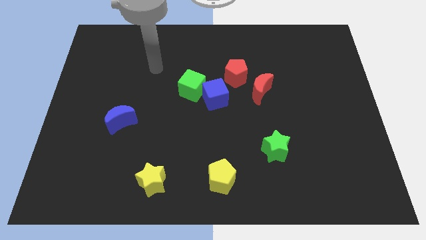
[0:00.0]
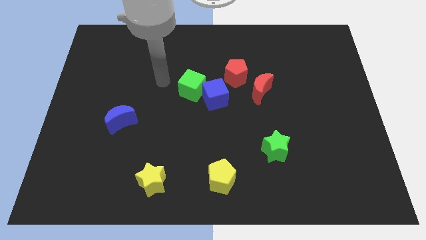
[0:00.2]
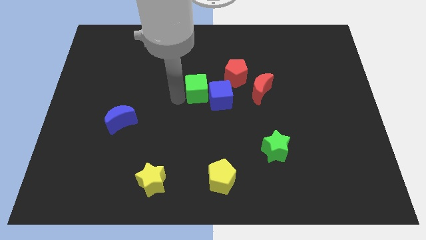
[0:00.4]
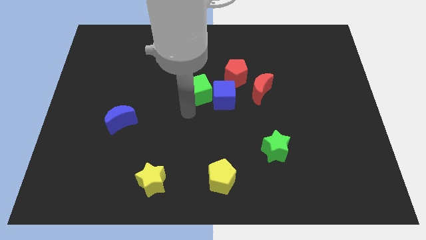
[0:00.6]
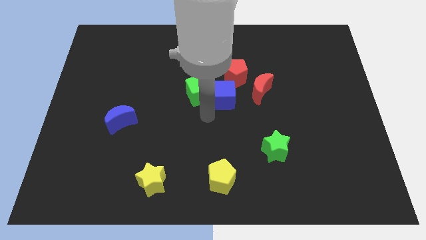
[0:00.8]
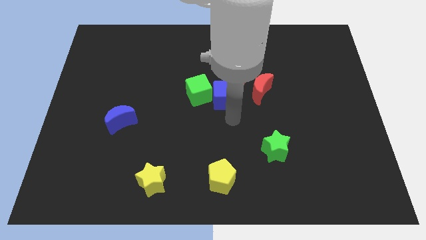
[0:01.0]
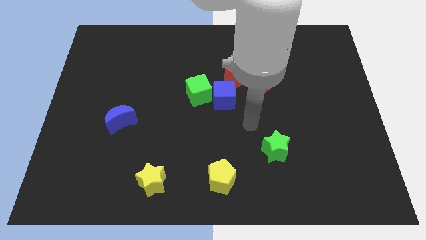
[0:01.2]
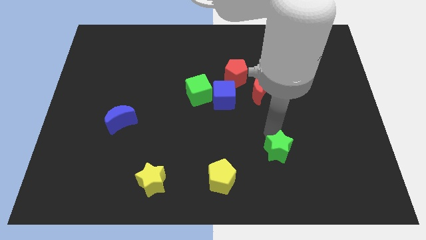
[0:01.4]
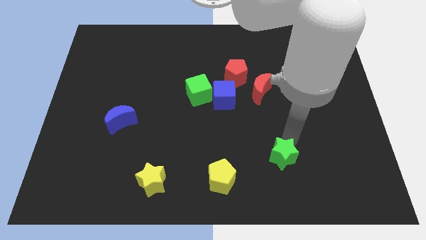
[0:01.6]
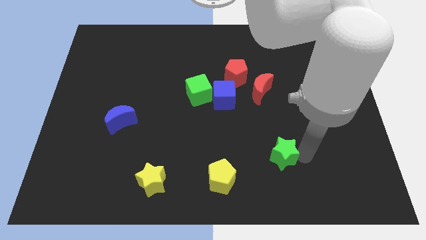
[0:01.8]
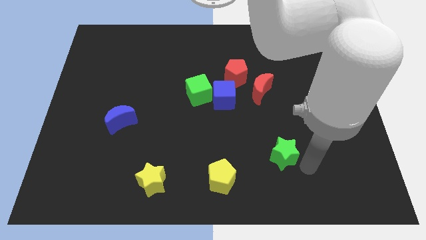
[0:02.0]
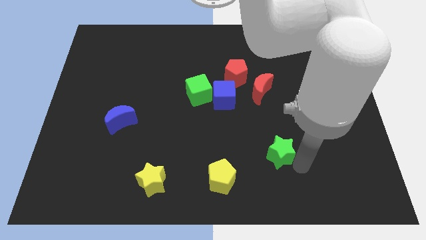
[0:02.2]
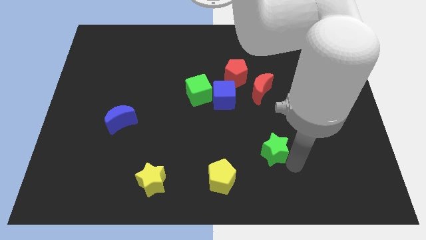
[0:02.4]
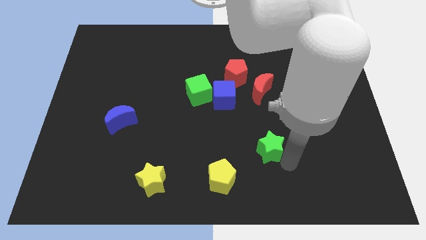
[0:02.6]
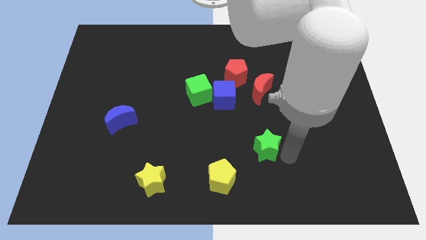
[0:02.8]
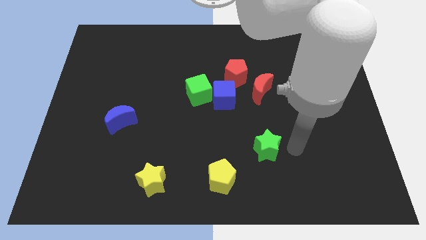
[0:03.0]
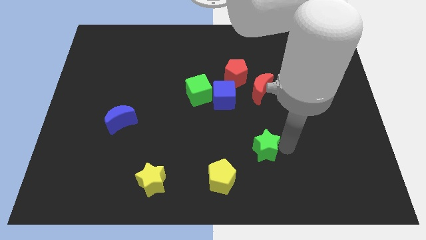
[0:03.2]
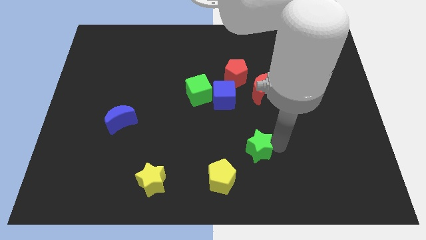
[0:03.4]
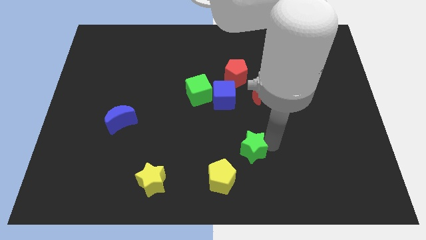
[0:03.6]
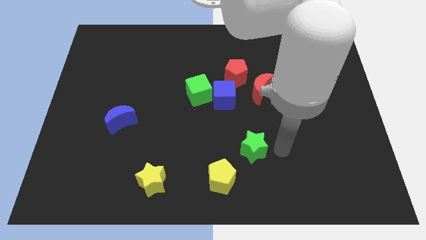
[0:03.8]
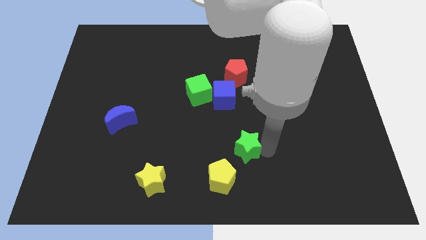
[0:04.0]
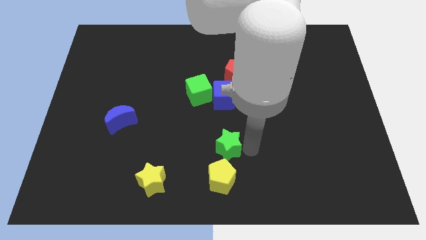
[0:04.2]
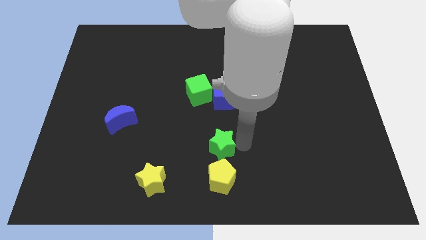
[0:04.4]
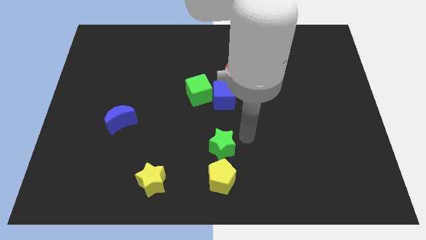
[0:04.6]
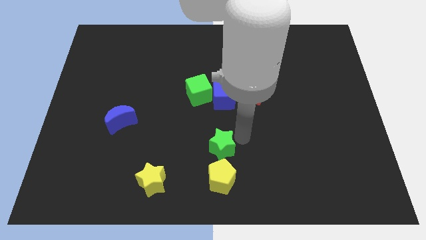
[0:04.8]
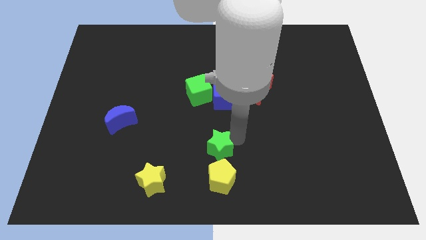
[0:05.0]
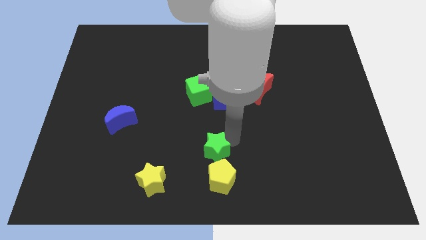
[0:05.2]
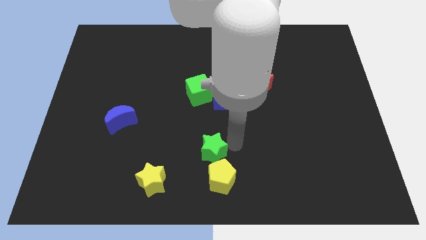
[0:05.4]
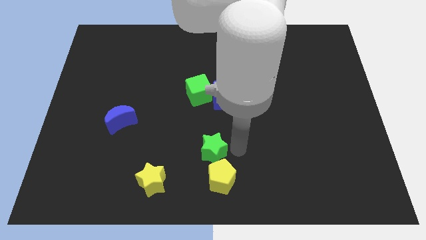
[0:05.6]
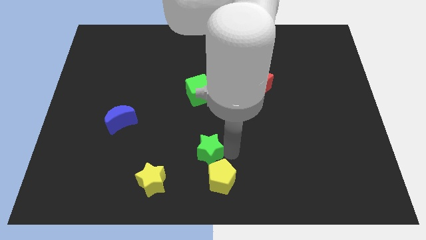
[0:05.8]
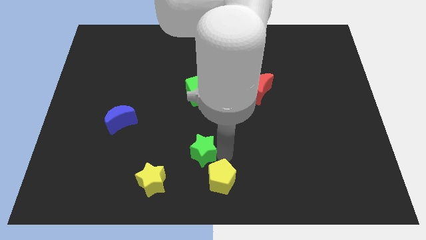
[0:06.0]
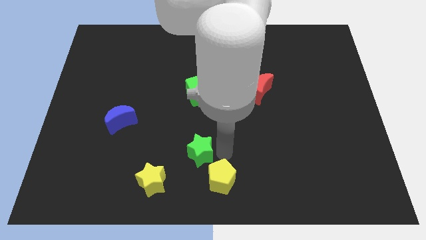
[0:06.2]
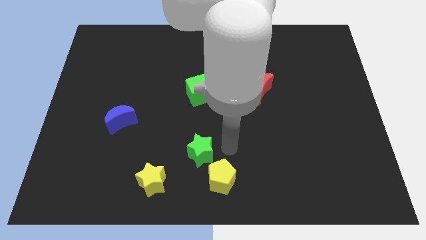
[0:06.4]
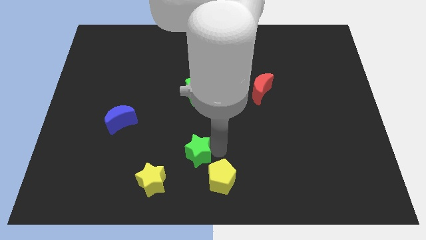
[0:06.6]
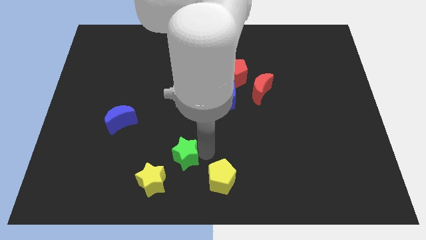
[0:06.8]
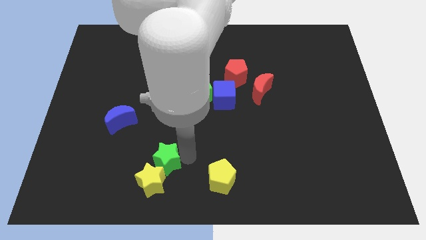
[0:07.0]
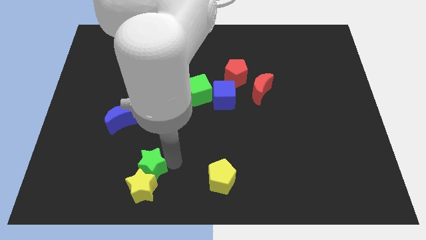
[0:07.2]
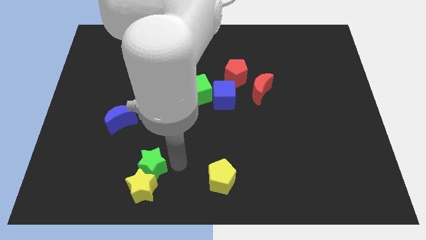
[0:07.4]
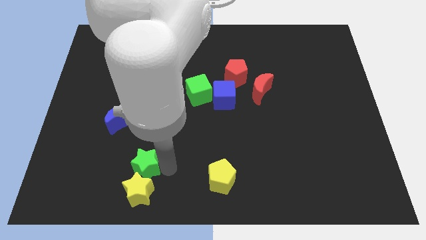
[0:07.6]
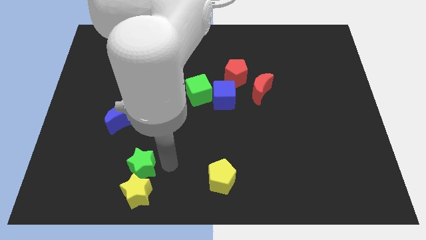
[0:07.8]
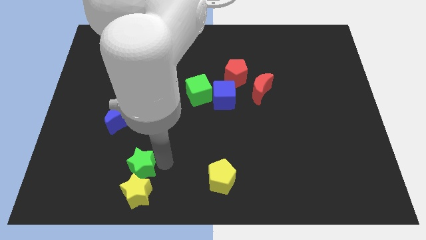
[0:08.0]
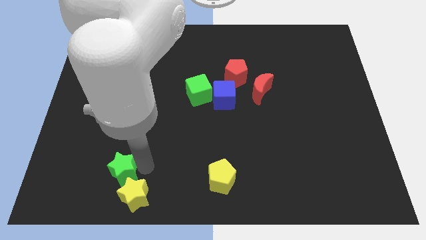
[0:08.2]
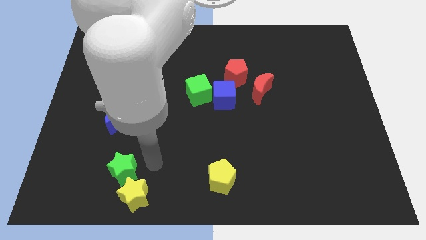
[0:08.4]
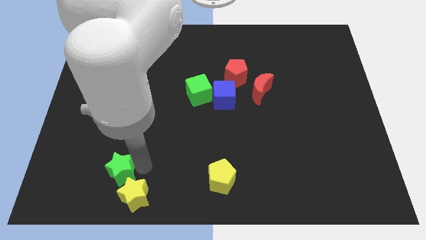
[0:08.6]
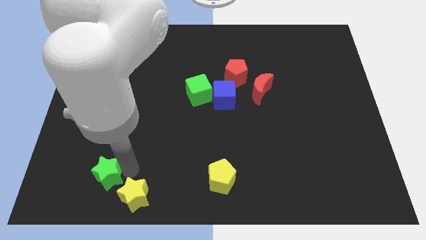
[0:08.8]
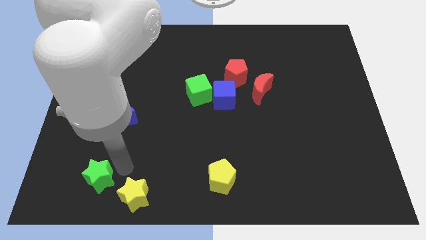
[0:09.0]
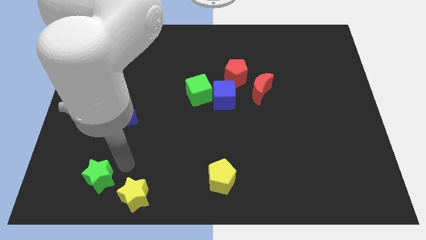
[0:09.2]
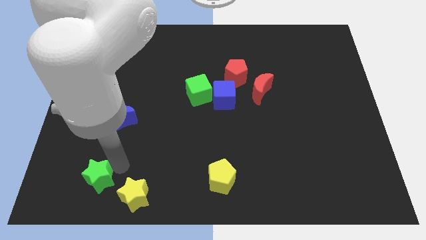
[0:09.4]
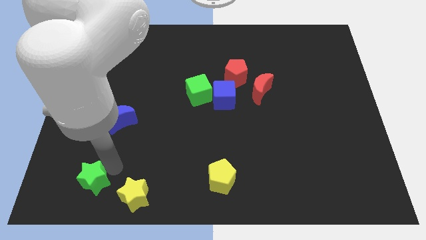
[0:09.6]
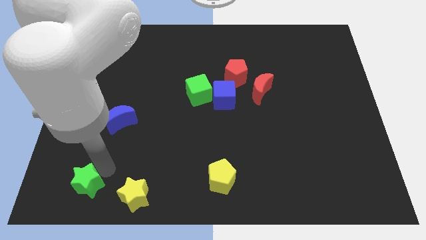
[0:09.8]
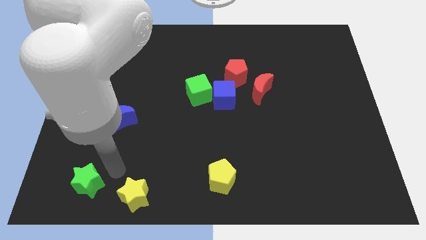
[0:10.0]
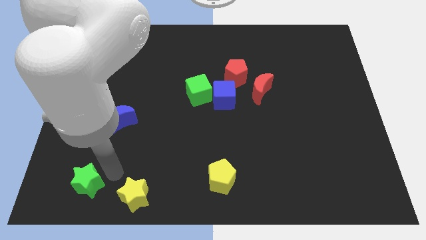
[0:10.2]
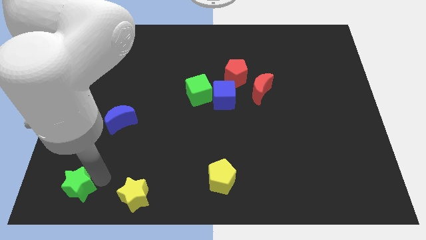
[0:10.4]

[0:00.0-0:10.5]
move the green star to the lower left corner

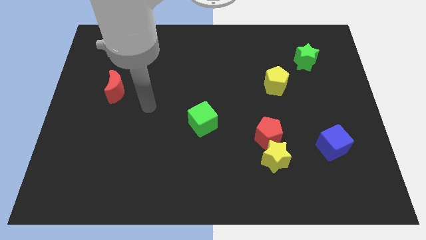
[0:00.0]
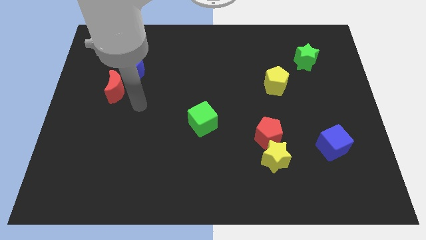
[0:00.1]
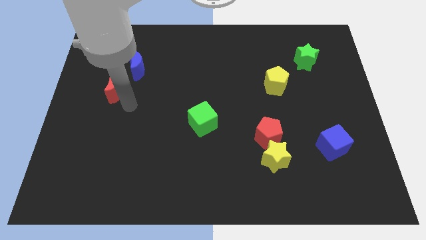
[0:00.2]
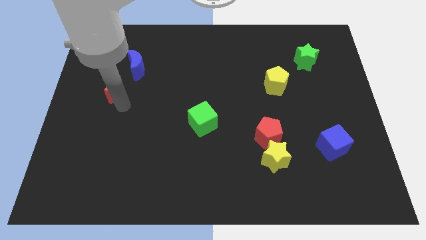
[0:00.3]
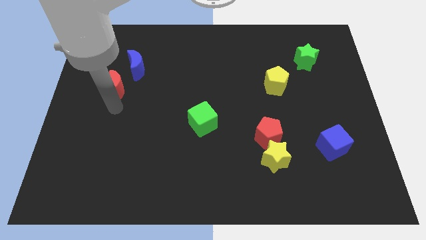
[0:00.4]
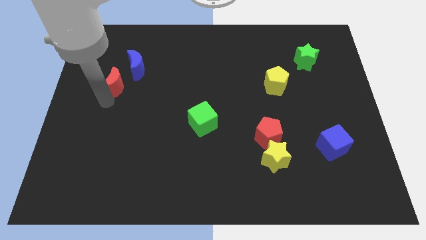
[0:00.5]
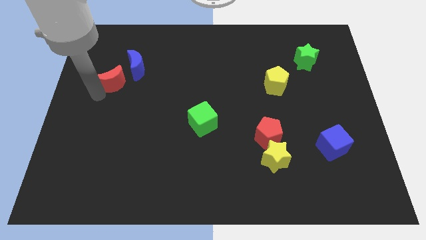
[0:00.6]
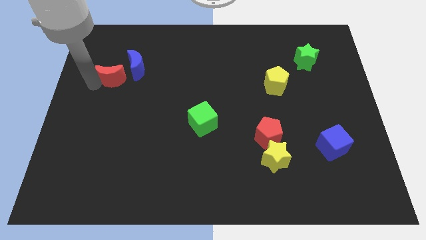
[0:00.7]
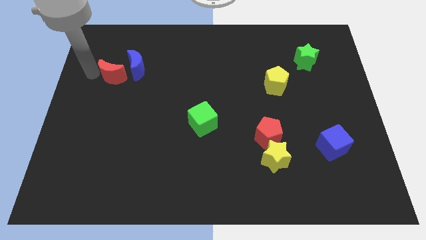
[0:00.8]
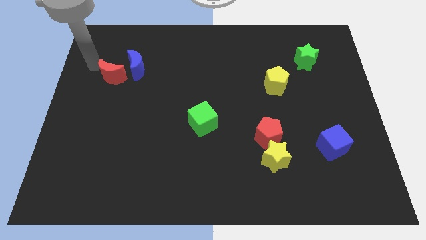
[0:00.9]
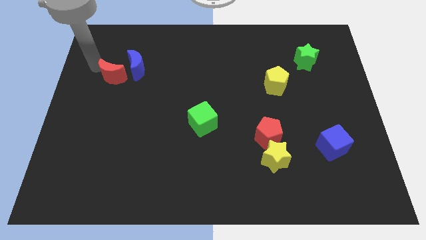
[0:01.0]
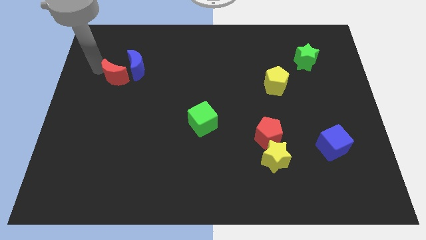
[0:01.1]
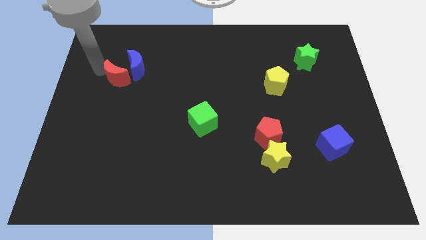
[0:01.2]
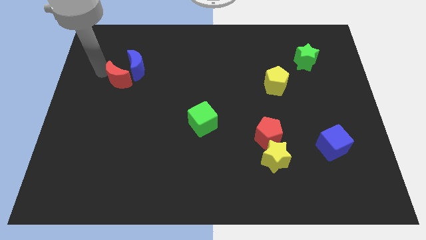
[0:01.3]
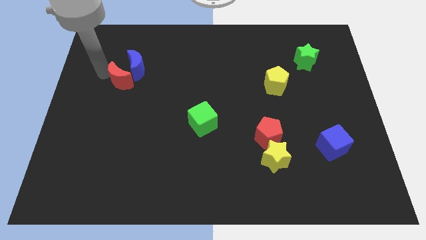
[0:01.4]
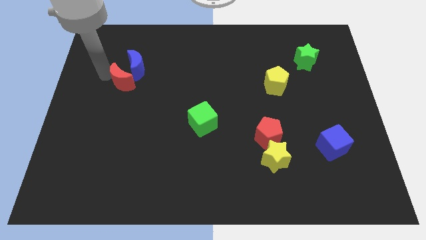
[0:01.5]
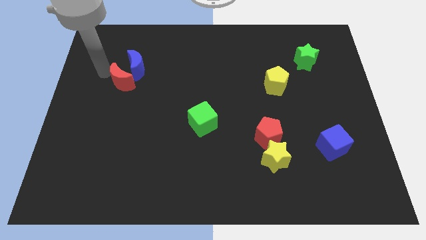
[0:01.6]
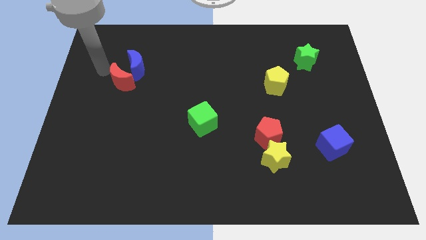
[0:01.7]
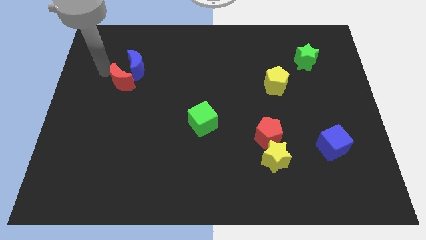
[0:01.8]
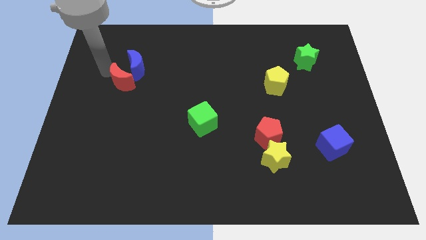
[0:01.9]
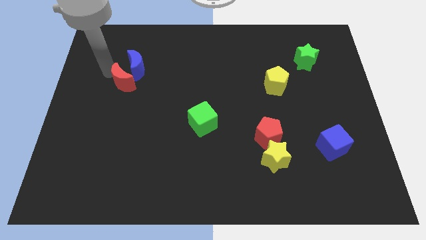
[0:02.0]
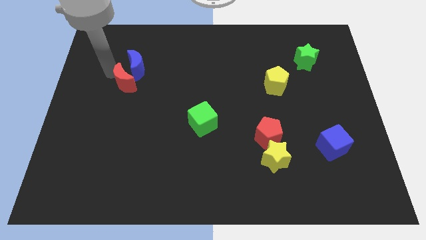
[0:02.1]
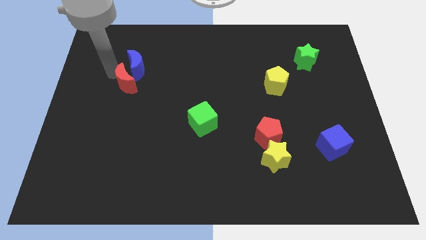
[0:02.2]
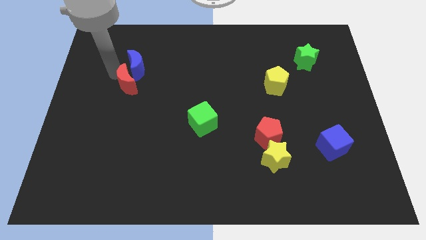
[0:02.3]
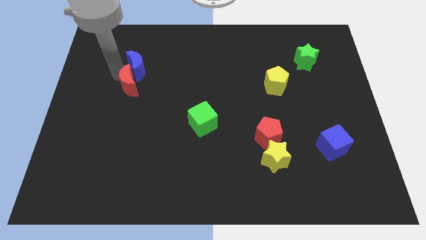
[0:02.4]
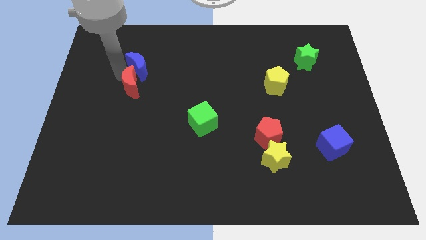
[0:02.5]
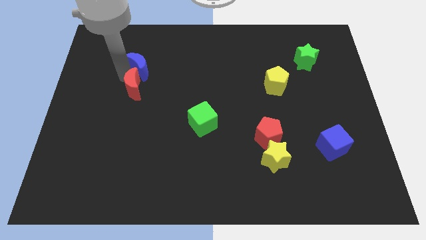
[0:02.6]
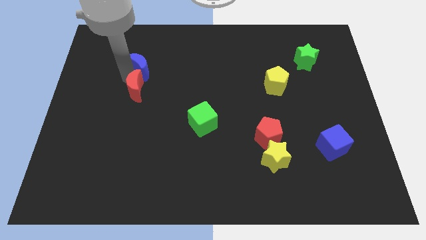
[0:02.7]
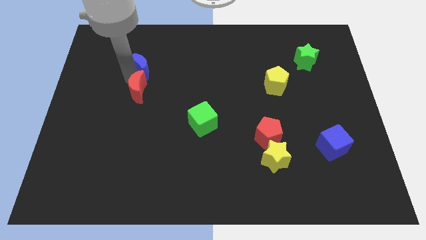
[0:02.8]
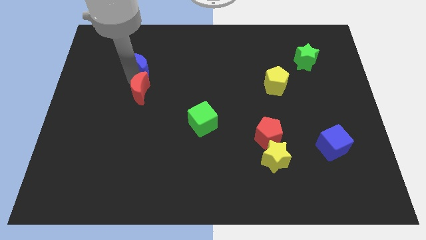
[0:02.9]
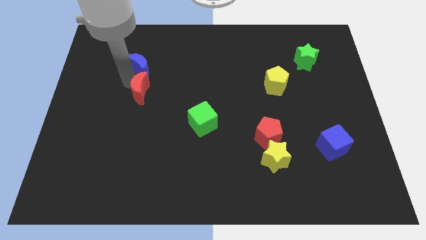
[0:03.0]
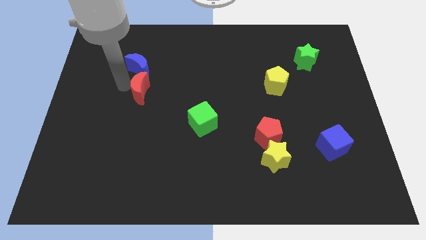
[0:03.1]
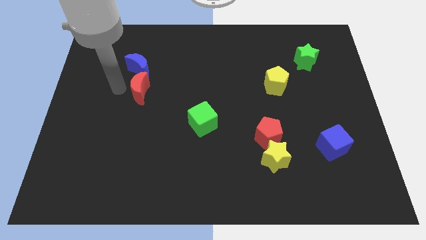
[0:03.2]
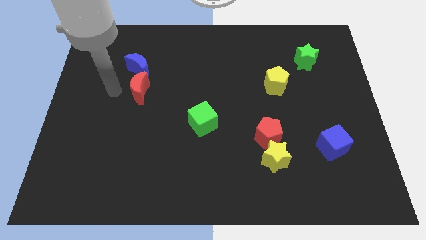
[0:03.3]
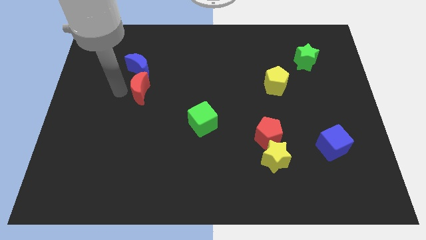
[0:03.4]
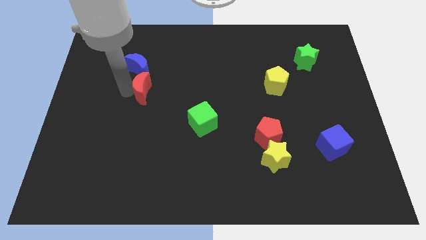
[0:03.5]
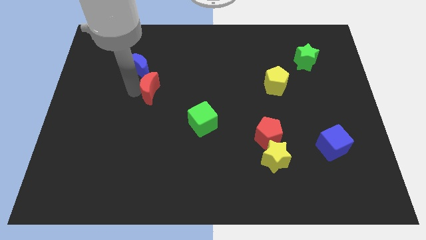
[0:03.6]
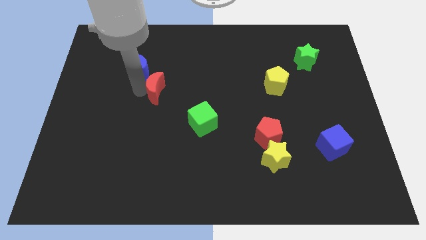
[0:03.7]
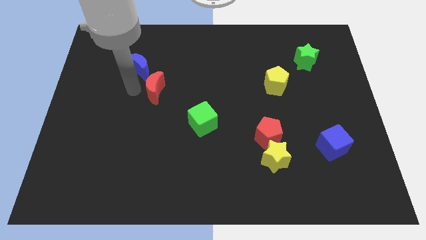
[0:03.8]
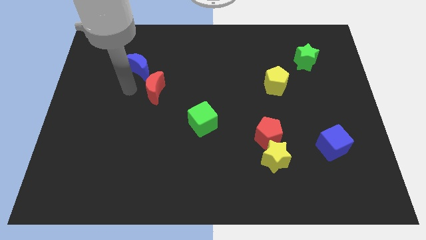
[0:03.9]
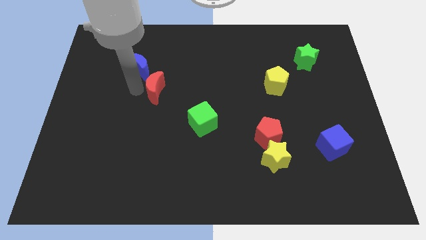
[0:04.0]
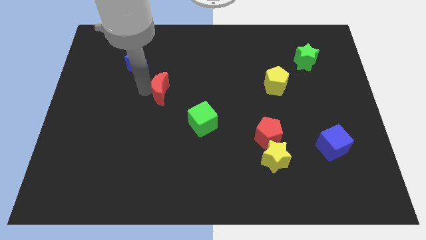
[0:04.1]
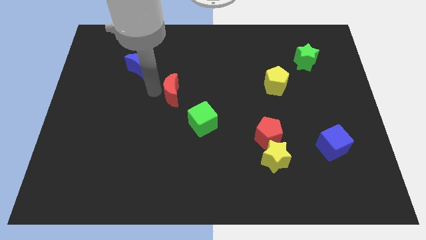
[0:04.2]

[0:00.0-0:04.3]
move the red moon to the middle
